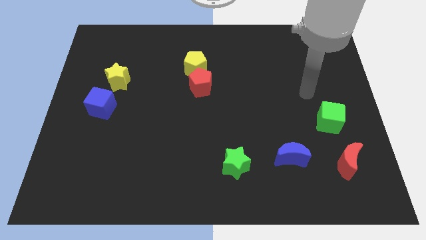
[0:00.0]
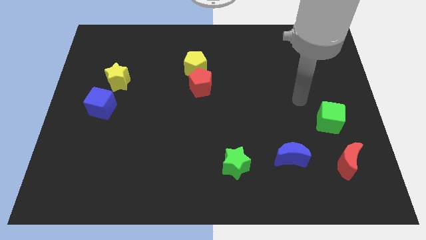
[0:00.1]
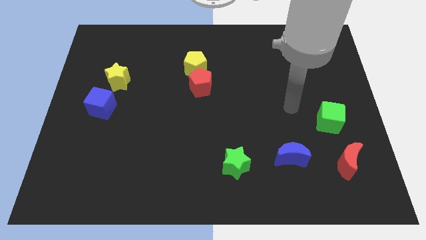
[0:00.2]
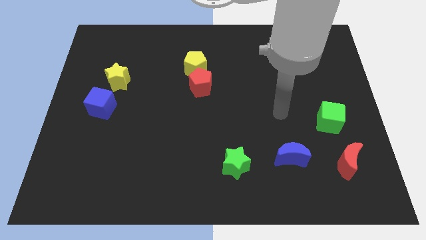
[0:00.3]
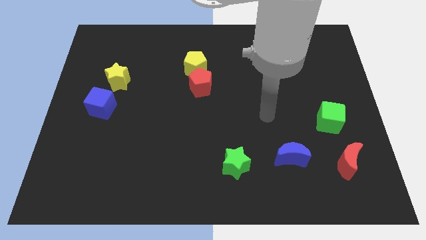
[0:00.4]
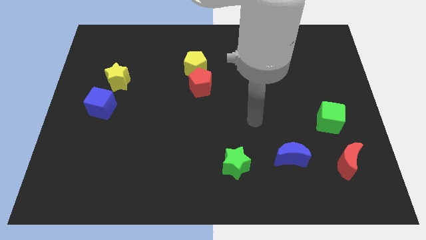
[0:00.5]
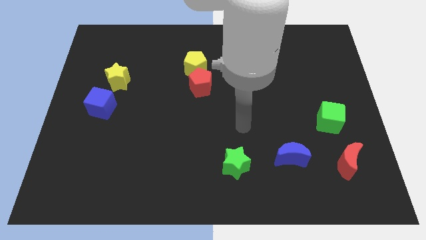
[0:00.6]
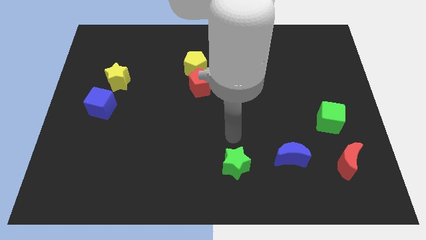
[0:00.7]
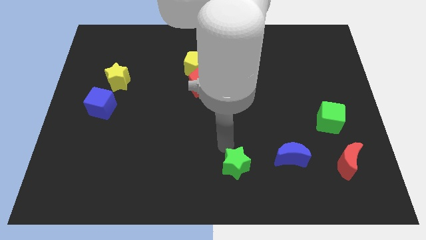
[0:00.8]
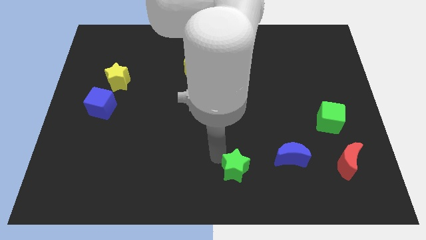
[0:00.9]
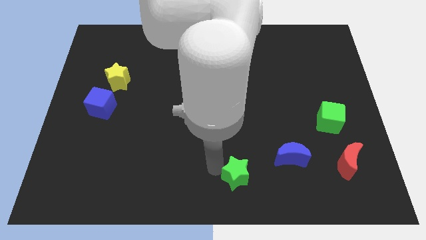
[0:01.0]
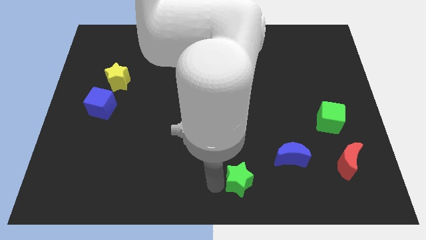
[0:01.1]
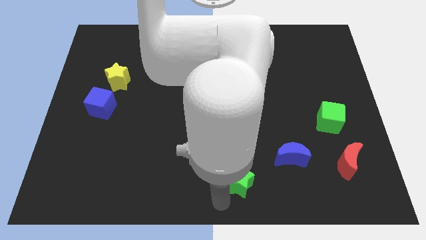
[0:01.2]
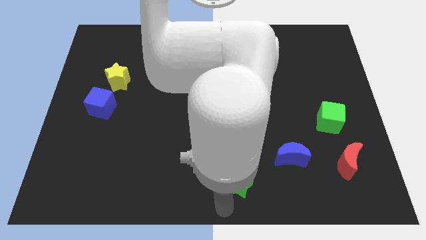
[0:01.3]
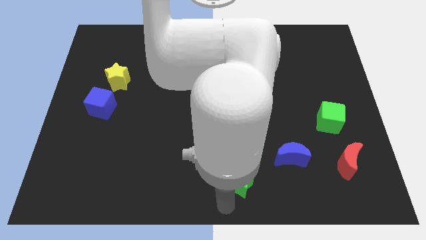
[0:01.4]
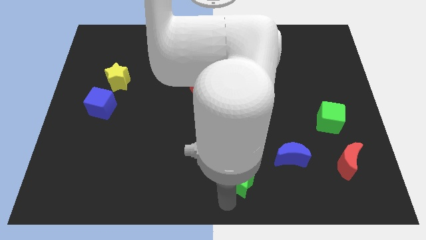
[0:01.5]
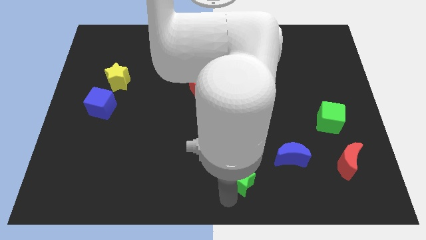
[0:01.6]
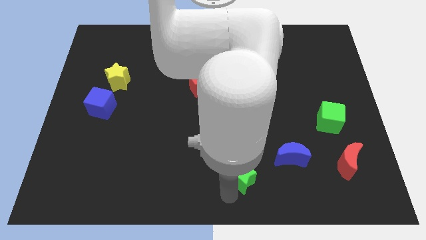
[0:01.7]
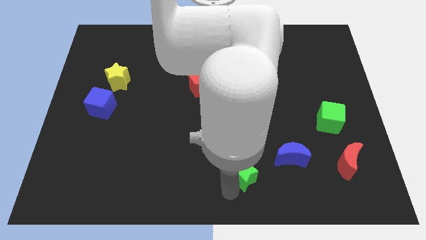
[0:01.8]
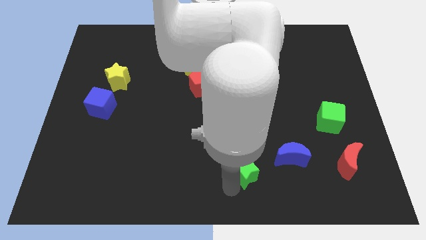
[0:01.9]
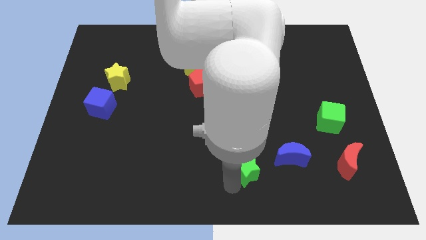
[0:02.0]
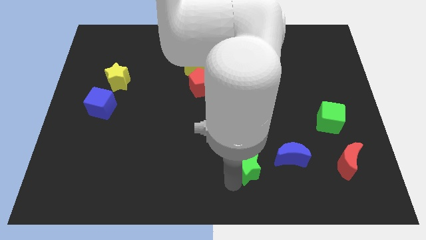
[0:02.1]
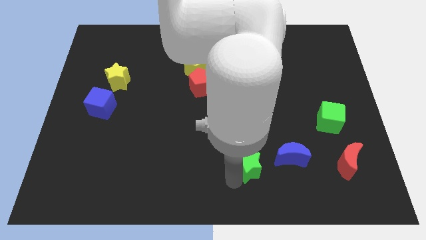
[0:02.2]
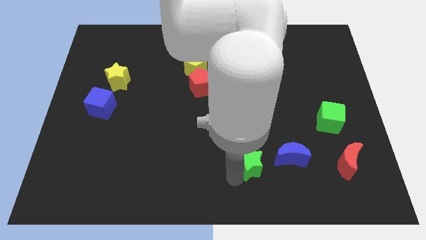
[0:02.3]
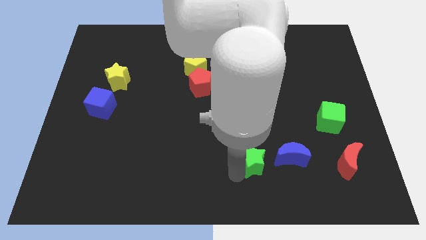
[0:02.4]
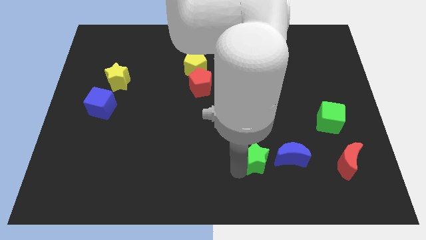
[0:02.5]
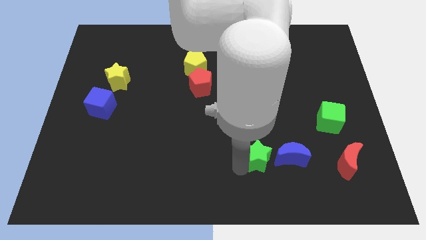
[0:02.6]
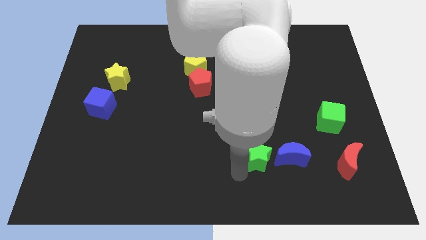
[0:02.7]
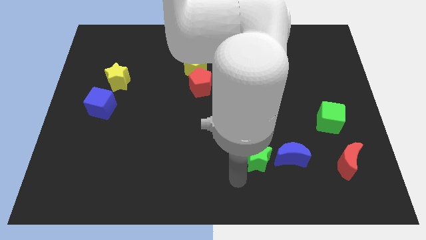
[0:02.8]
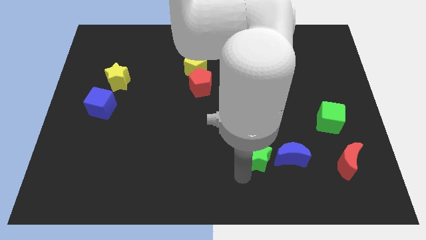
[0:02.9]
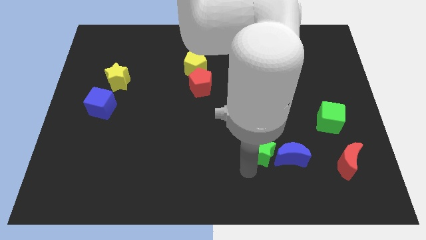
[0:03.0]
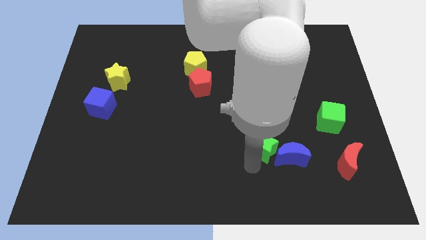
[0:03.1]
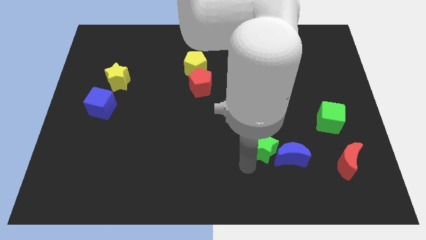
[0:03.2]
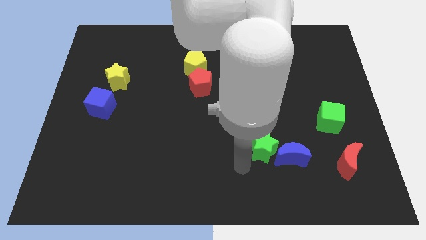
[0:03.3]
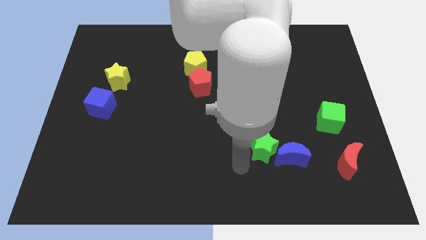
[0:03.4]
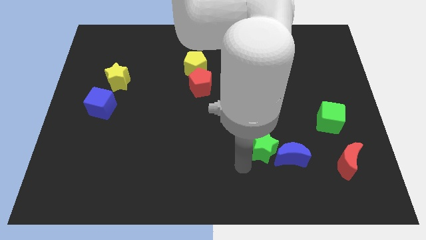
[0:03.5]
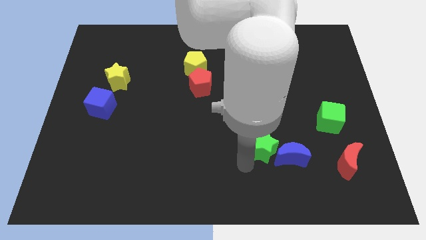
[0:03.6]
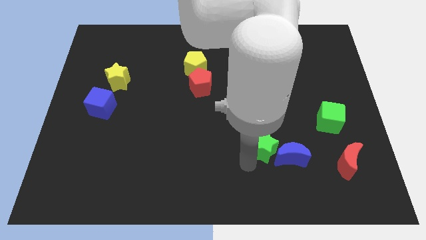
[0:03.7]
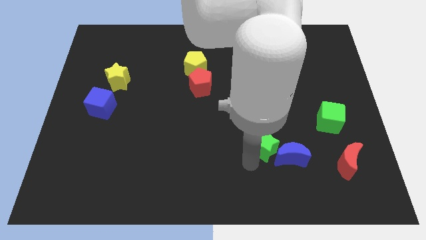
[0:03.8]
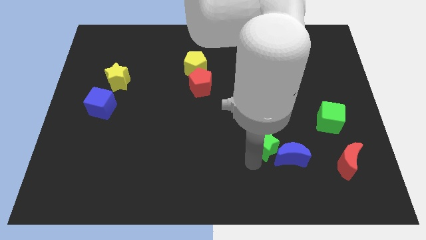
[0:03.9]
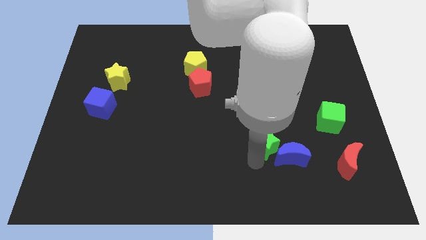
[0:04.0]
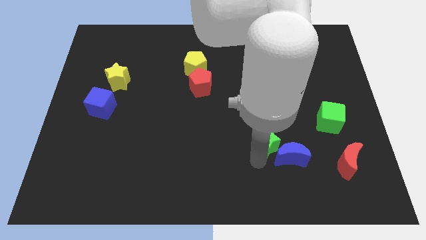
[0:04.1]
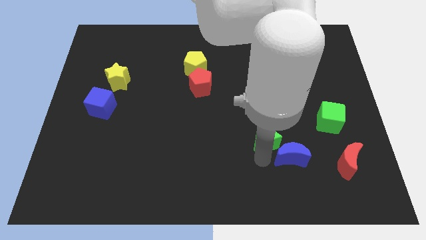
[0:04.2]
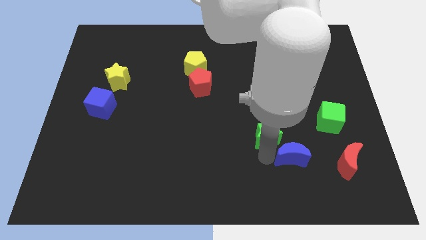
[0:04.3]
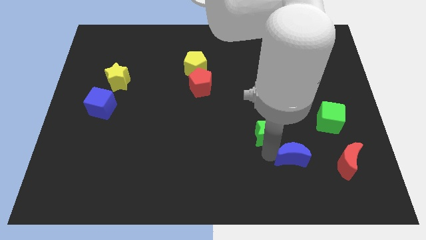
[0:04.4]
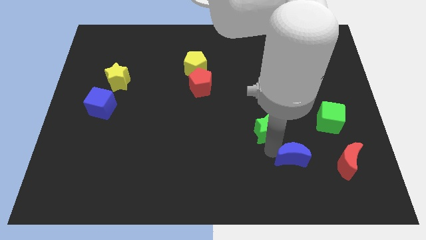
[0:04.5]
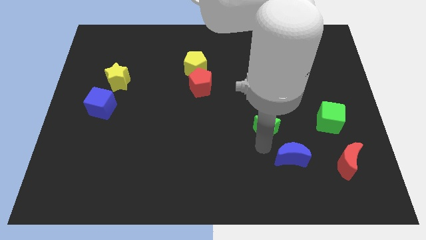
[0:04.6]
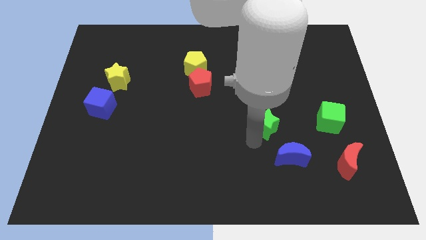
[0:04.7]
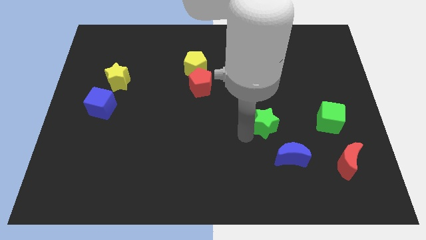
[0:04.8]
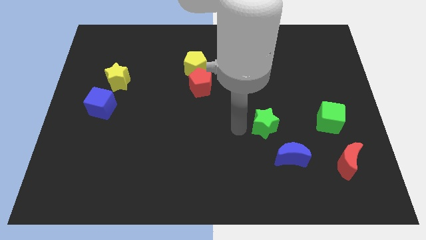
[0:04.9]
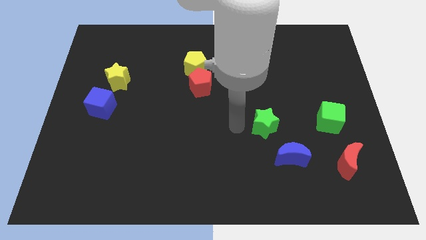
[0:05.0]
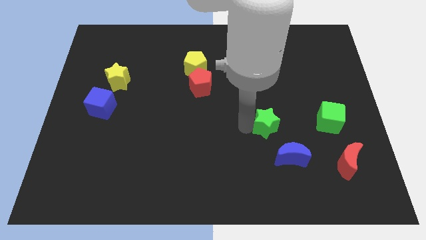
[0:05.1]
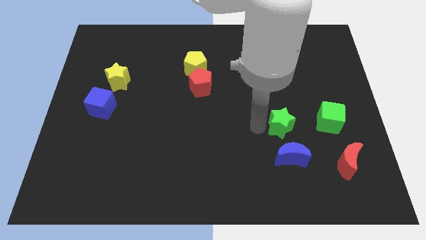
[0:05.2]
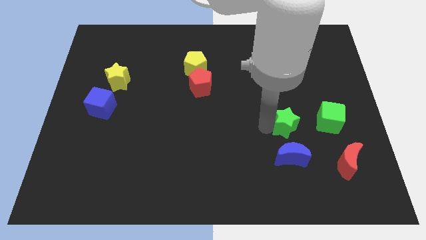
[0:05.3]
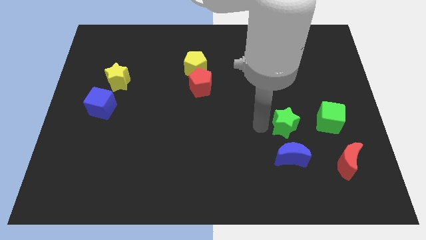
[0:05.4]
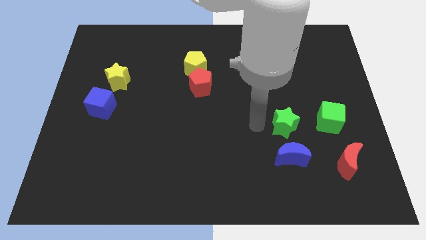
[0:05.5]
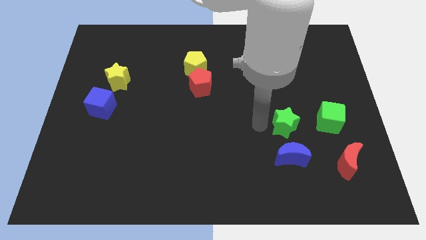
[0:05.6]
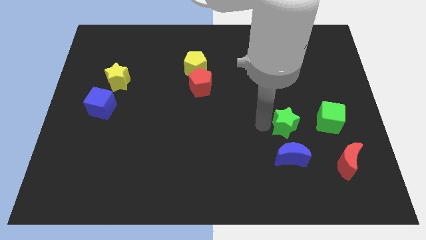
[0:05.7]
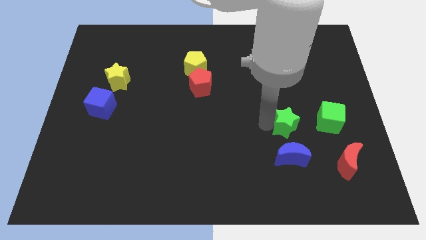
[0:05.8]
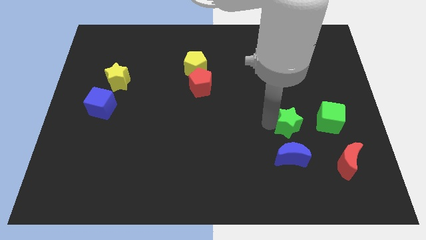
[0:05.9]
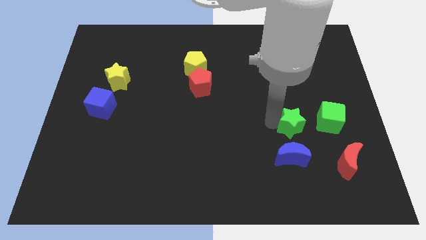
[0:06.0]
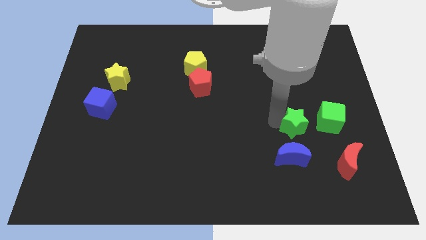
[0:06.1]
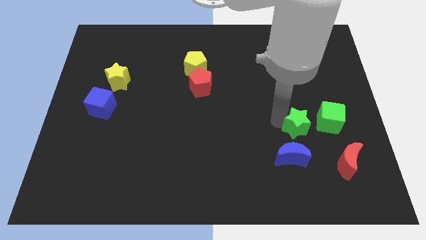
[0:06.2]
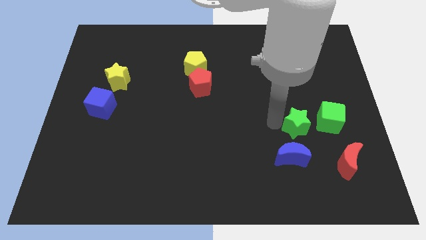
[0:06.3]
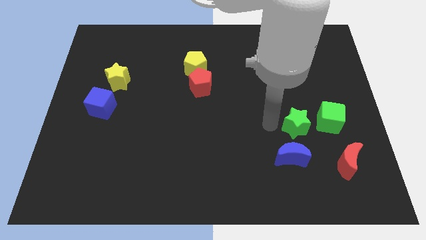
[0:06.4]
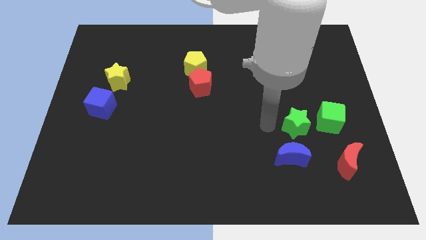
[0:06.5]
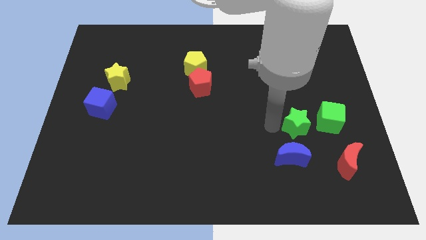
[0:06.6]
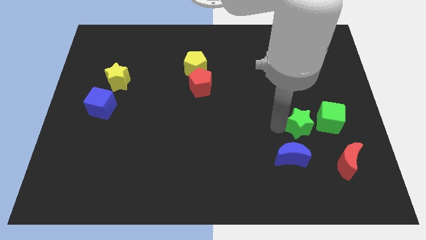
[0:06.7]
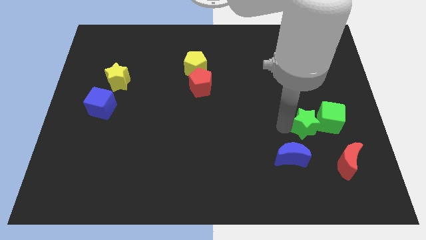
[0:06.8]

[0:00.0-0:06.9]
push the green star close to the green cube
